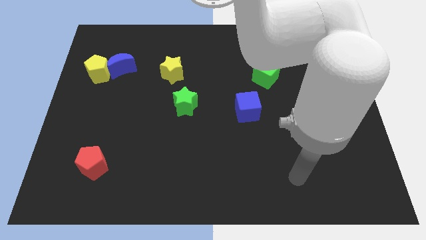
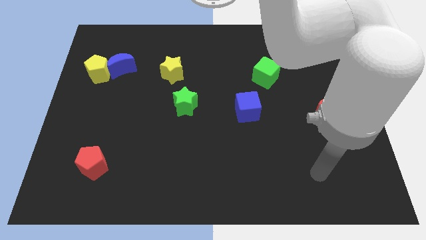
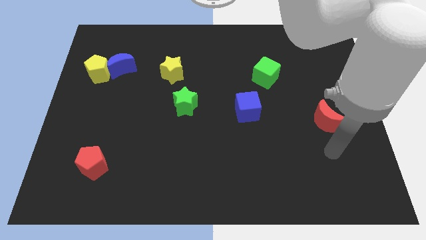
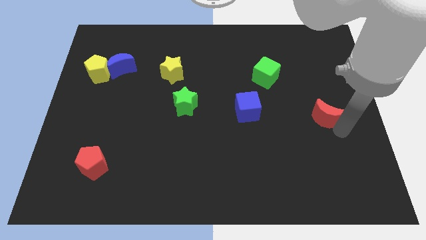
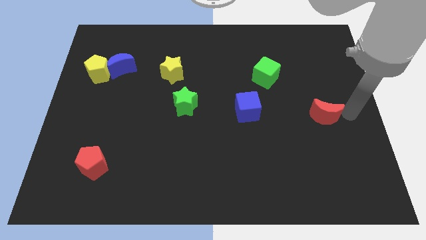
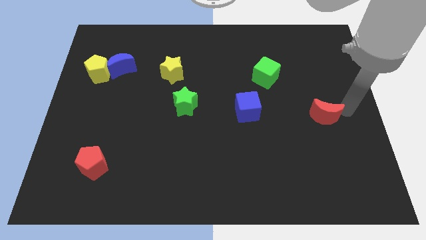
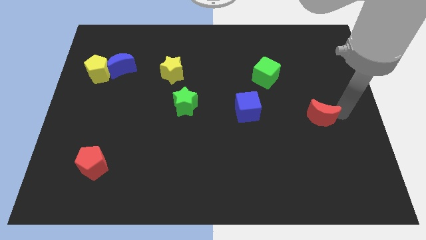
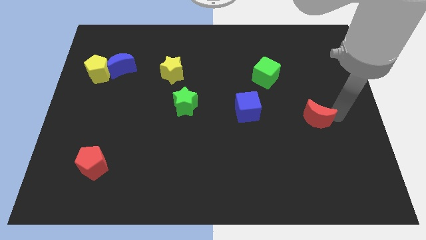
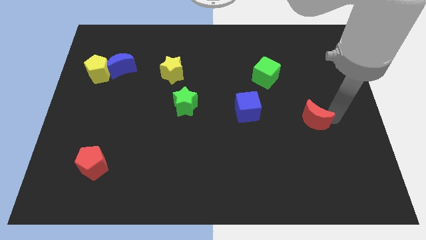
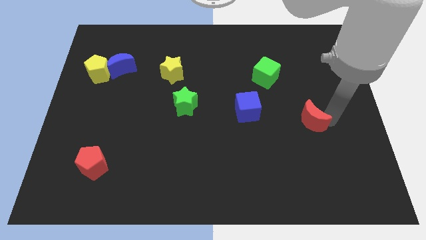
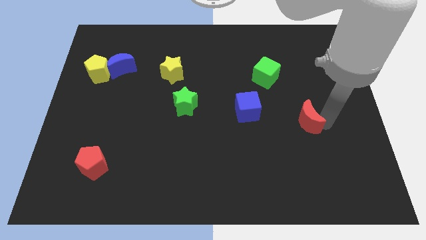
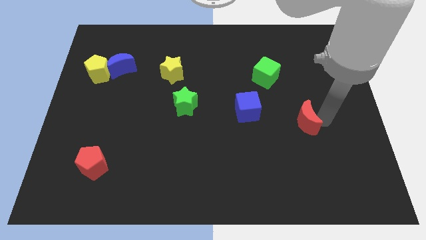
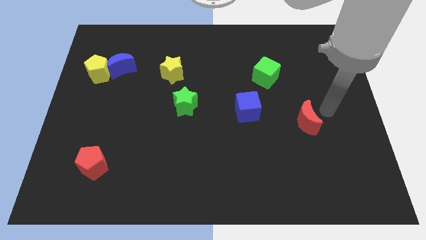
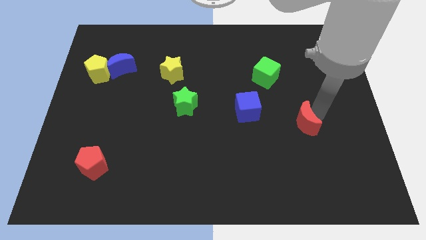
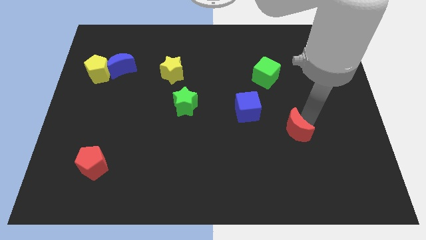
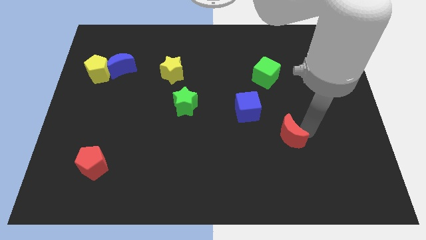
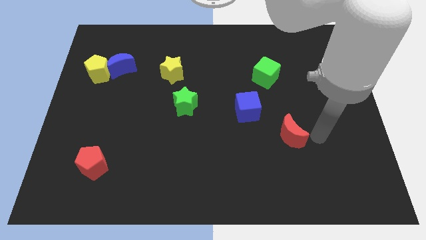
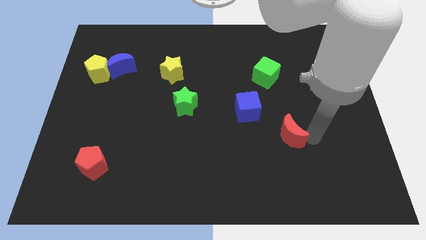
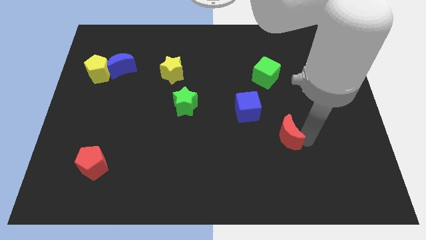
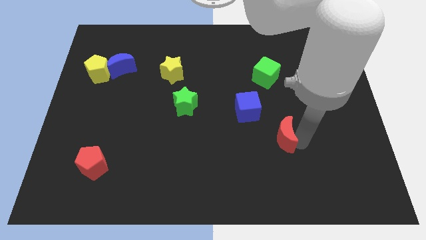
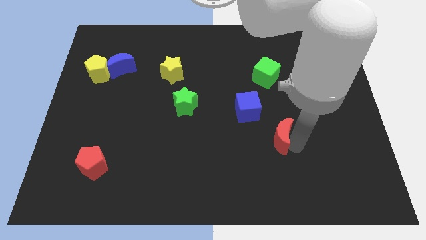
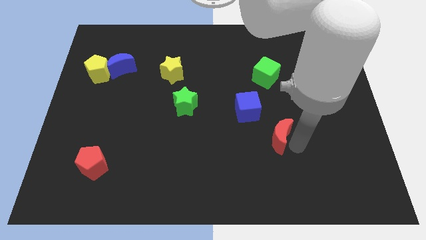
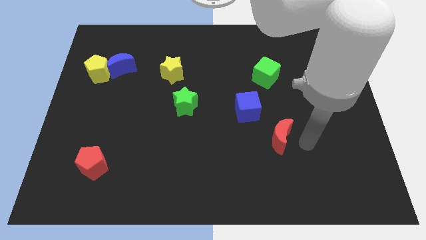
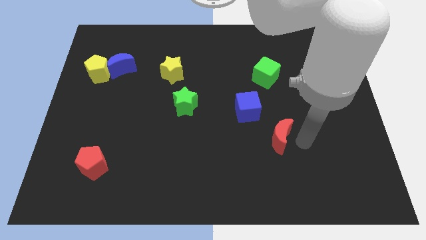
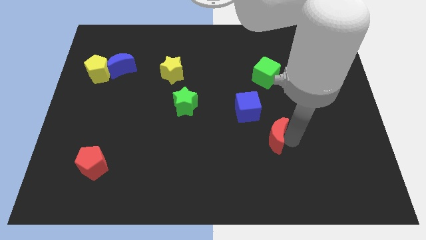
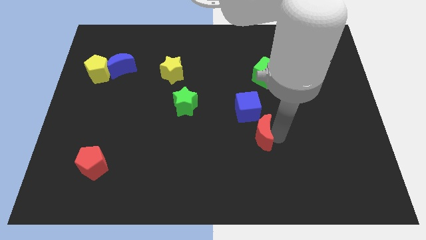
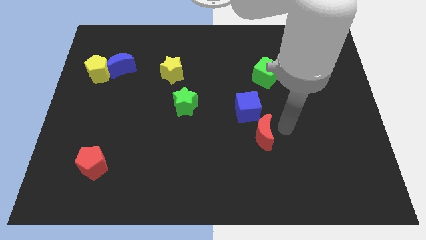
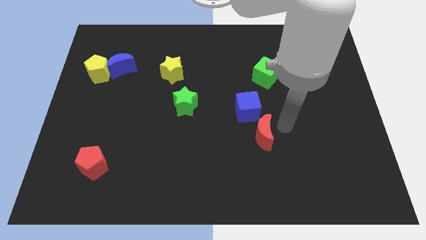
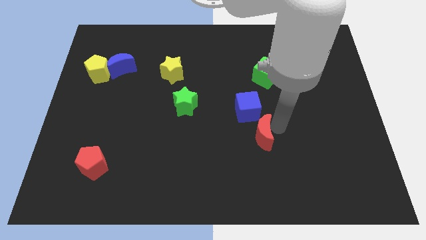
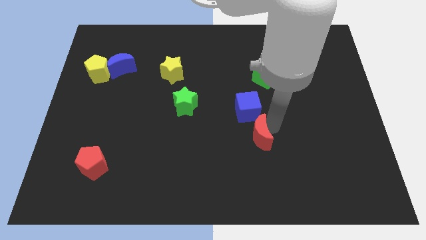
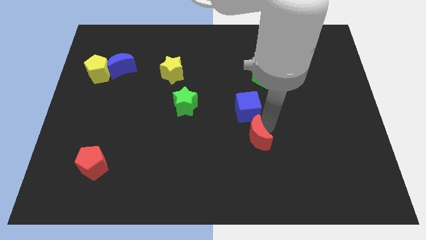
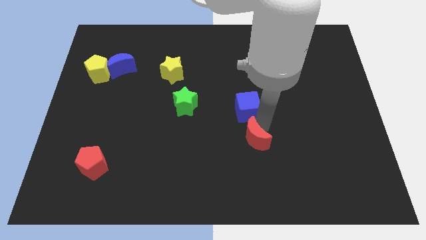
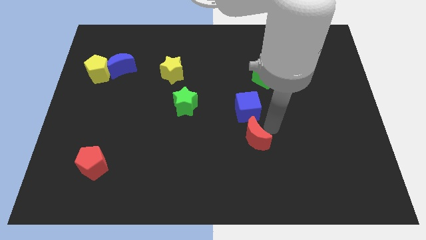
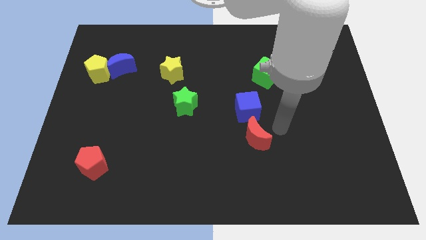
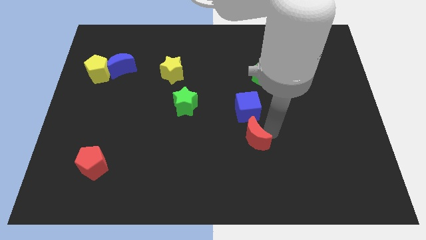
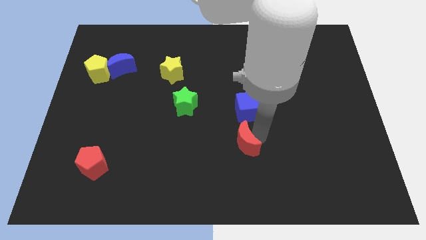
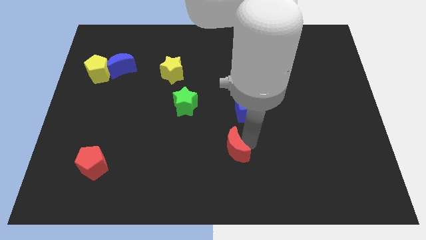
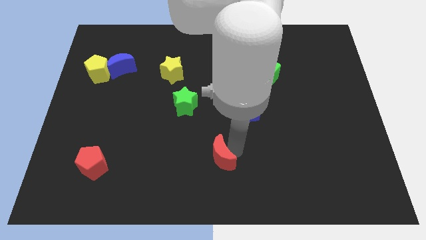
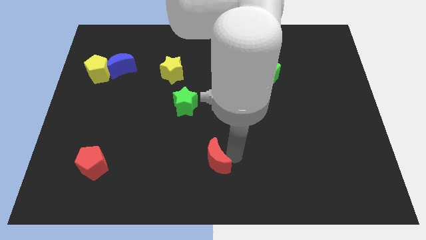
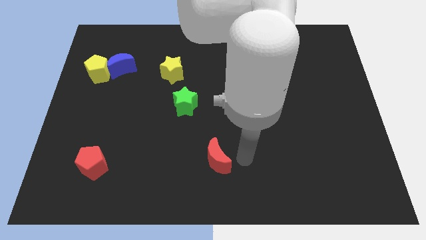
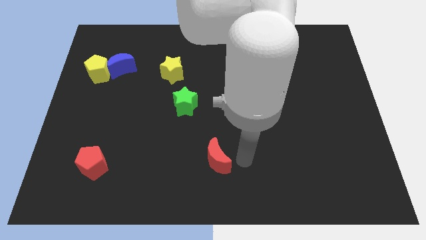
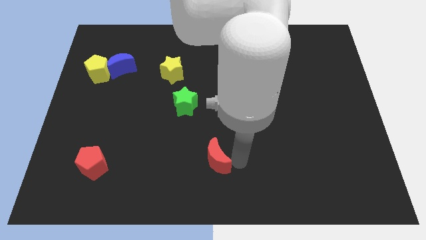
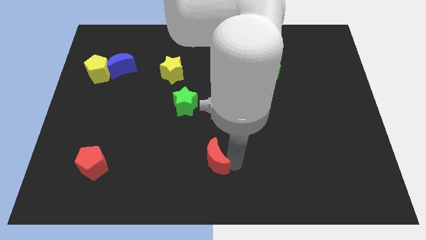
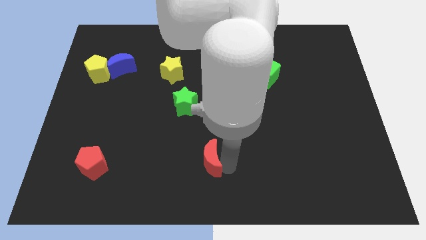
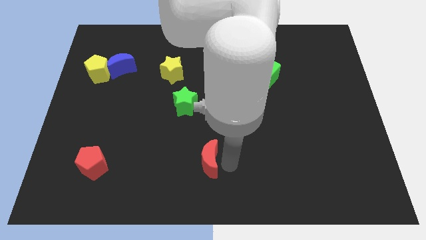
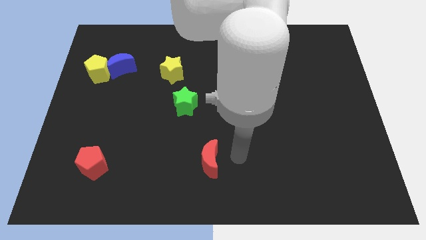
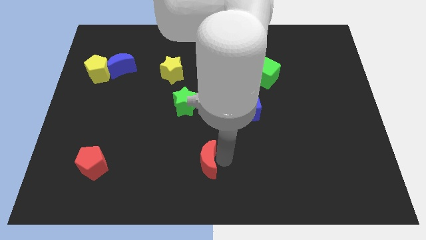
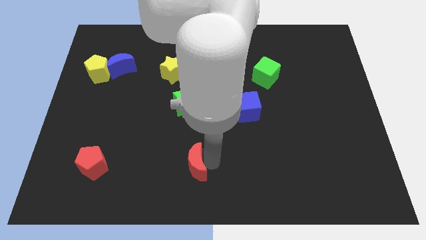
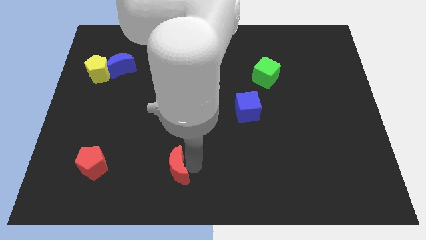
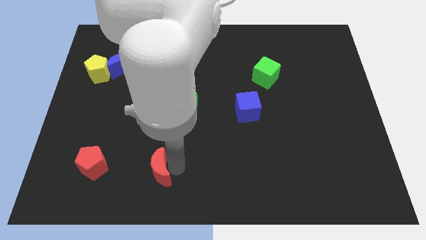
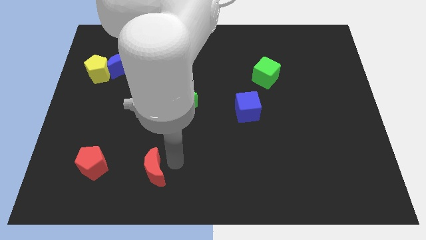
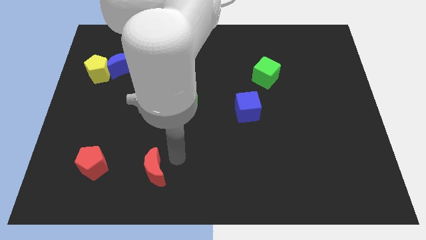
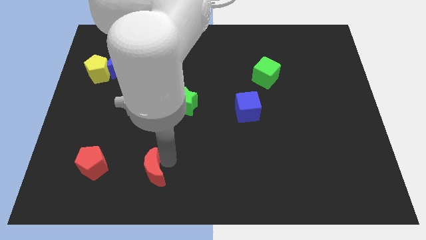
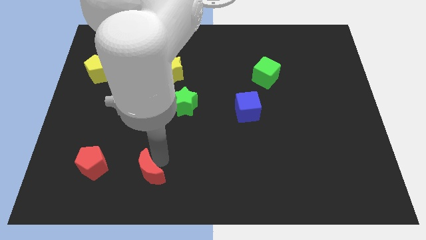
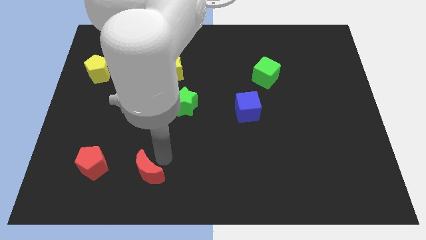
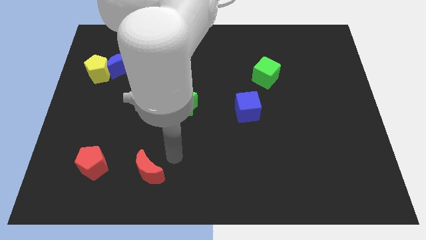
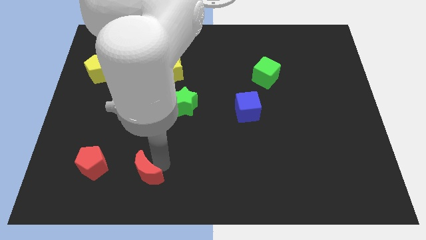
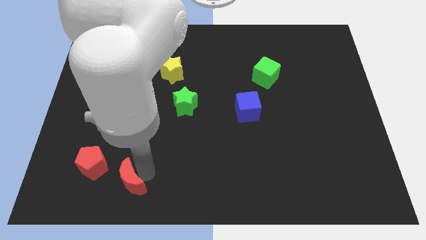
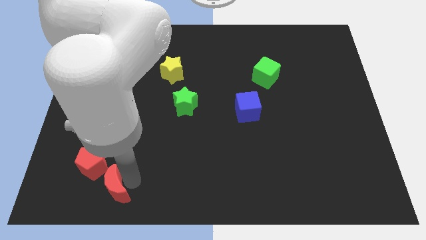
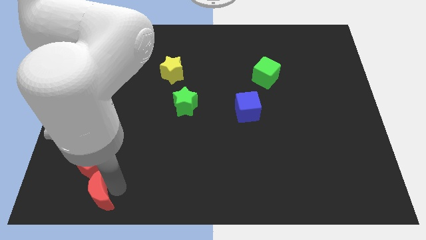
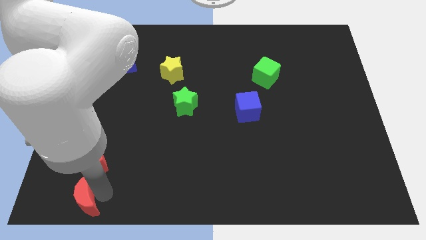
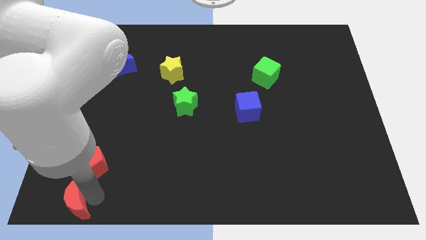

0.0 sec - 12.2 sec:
slide the red moon to the bottom left

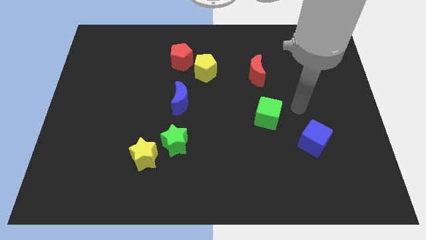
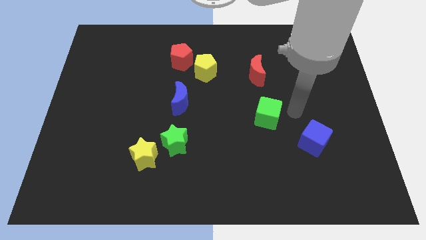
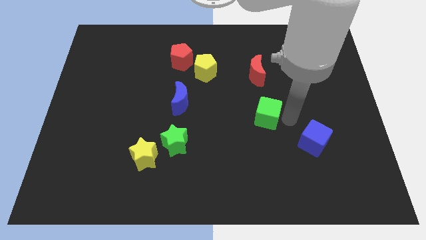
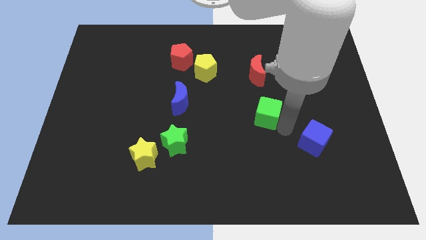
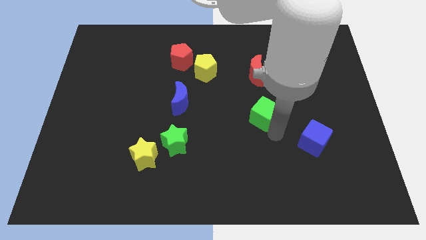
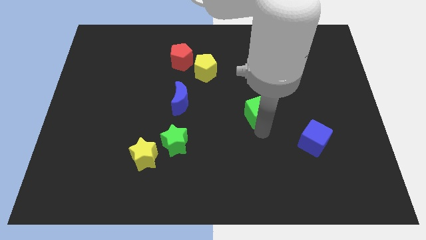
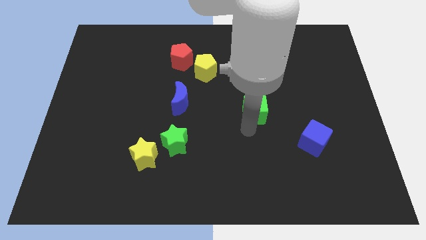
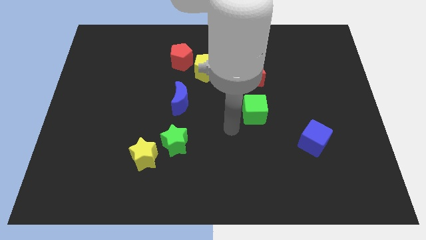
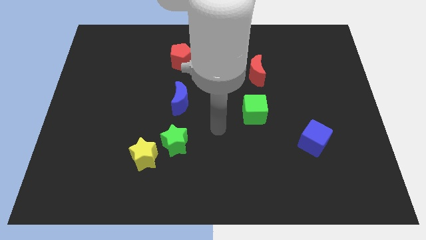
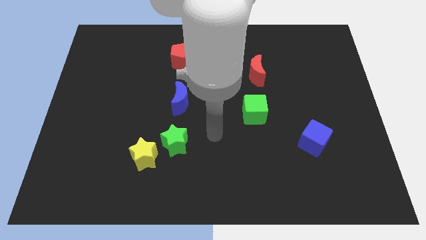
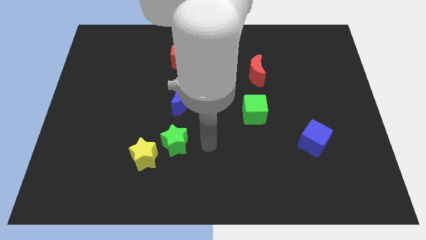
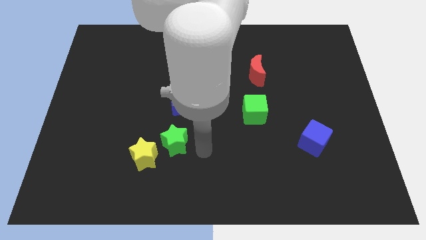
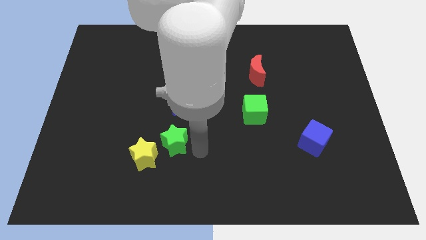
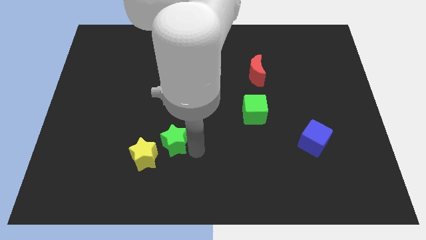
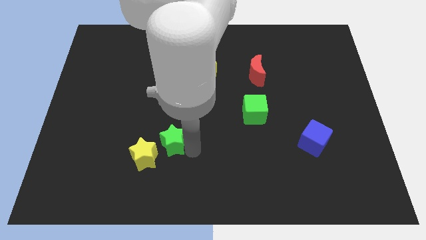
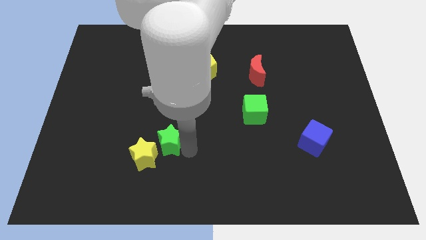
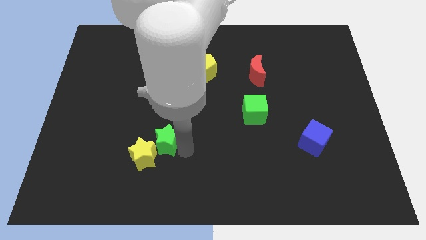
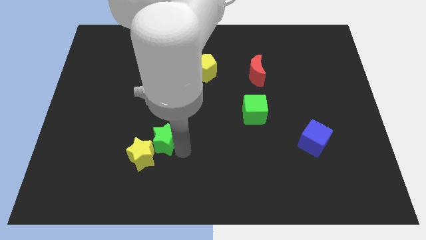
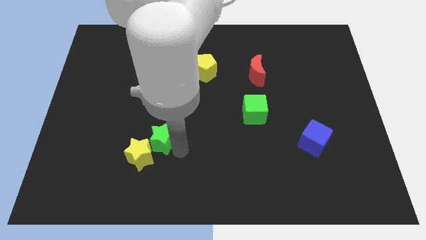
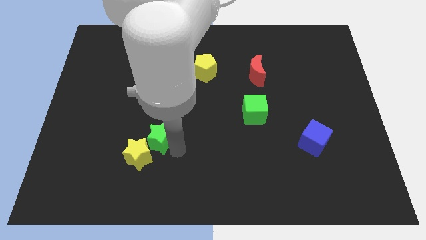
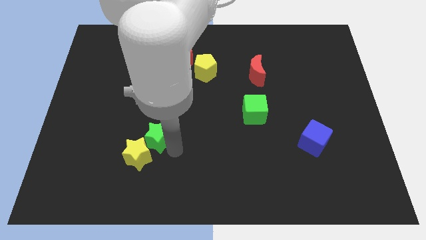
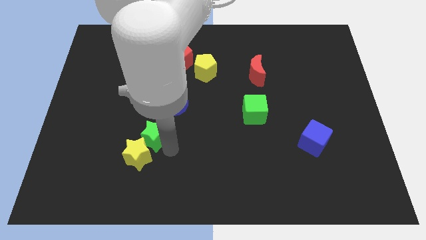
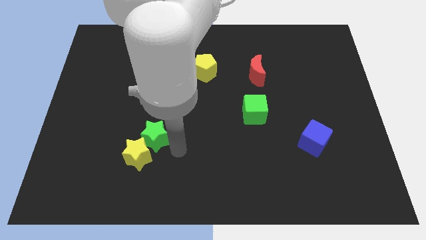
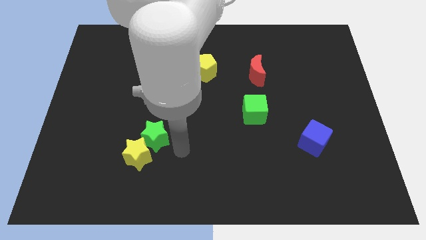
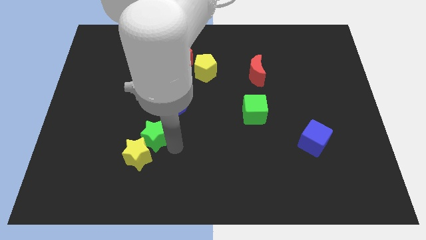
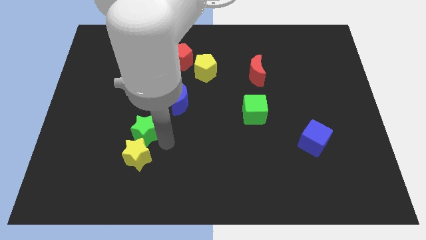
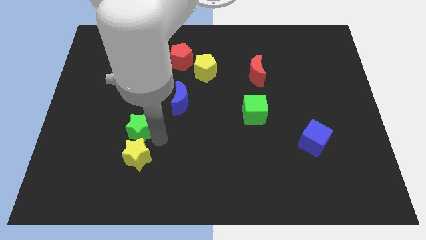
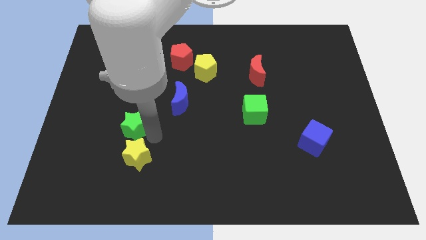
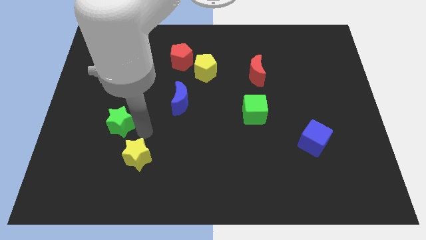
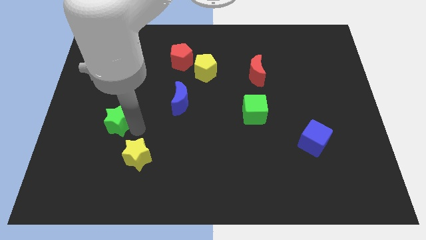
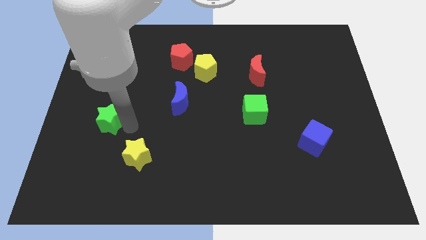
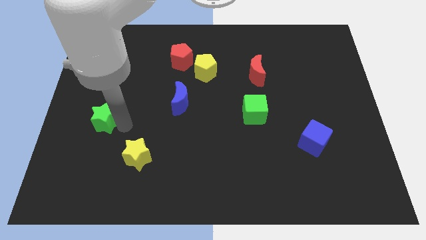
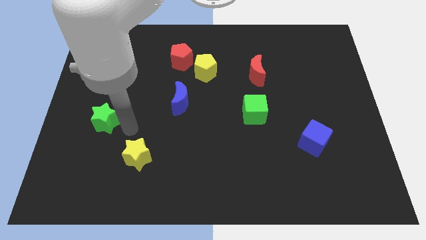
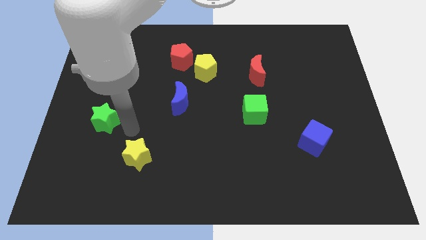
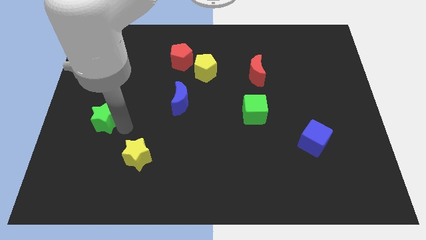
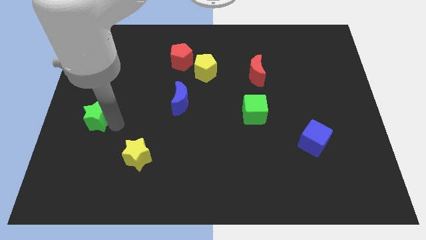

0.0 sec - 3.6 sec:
put the green star to the left side of the board
